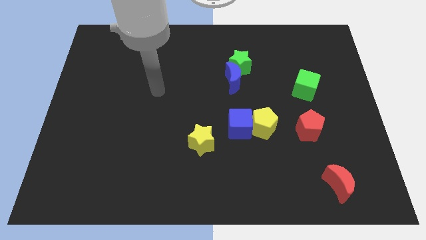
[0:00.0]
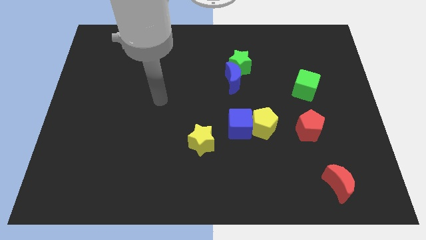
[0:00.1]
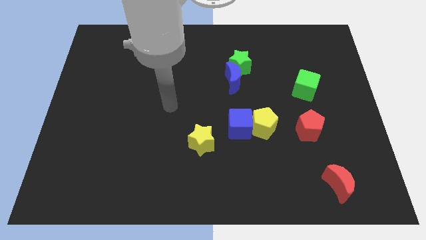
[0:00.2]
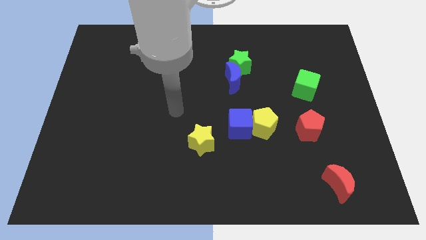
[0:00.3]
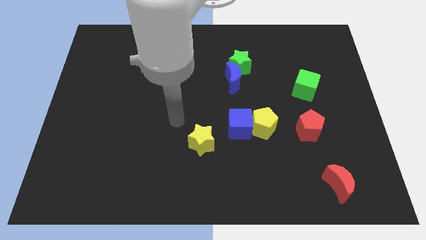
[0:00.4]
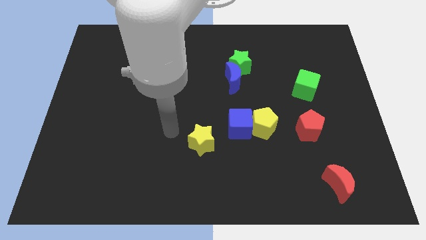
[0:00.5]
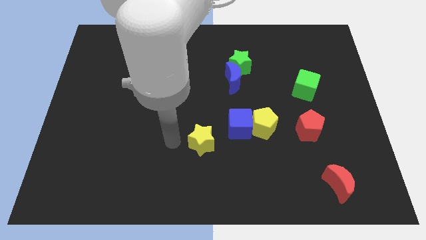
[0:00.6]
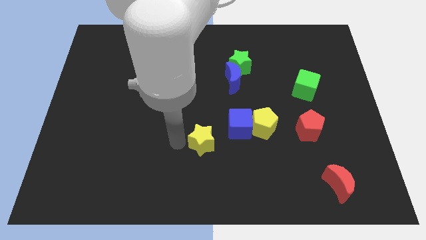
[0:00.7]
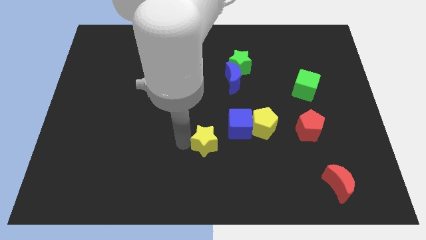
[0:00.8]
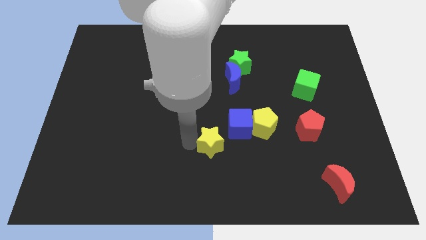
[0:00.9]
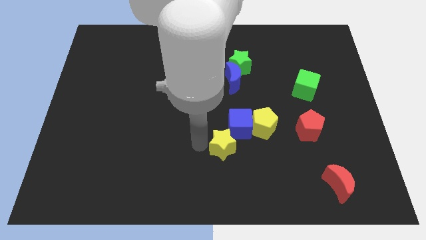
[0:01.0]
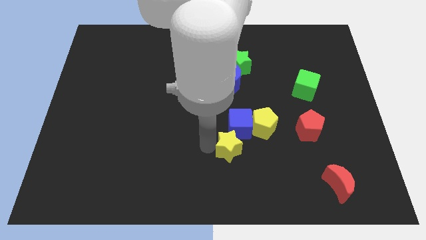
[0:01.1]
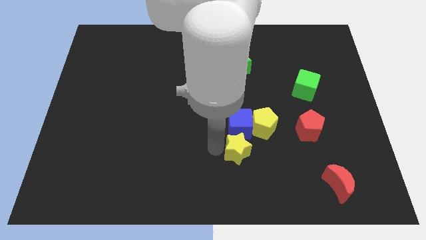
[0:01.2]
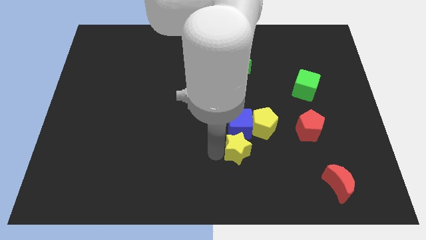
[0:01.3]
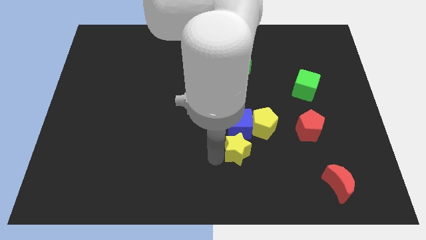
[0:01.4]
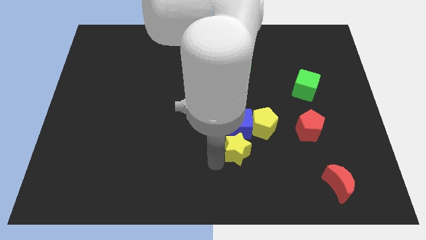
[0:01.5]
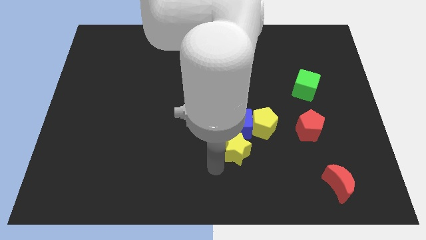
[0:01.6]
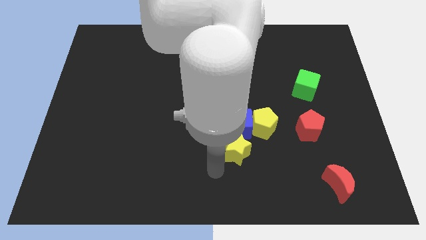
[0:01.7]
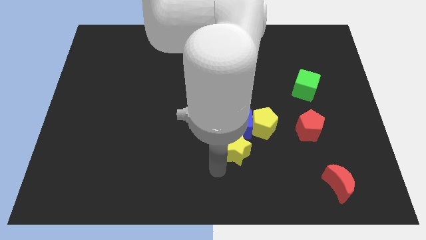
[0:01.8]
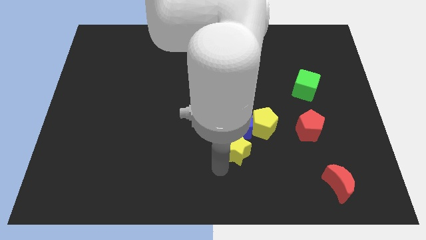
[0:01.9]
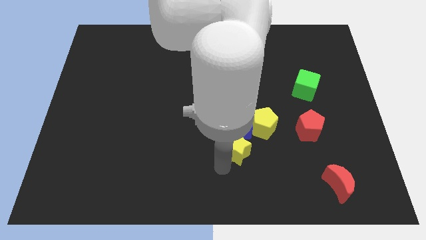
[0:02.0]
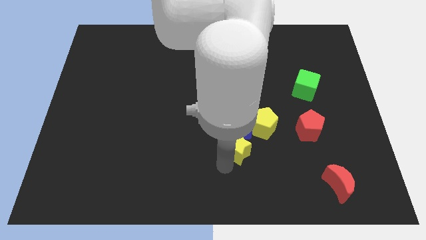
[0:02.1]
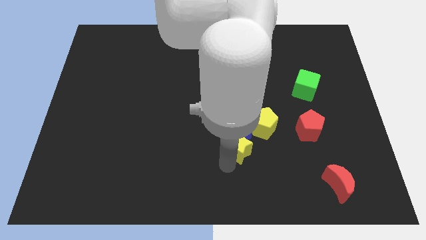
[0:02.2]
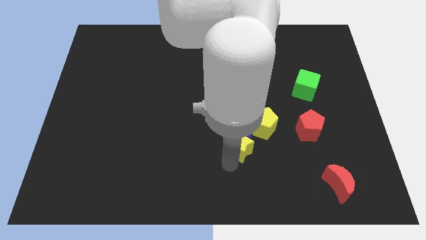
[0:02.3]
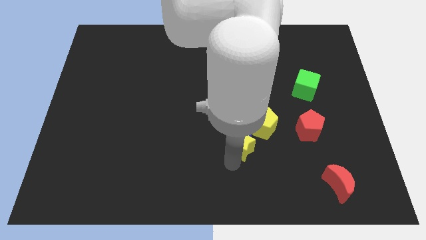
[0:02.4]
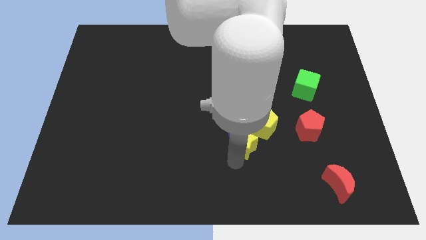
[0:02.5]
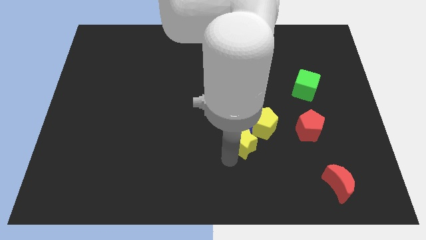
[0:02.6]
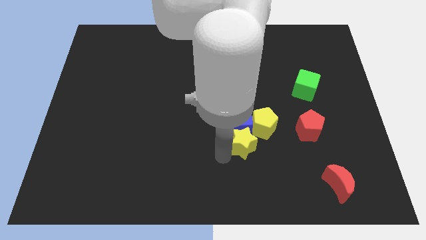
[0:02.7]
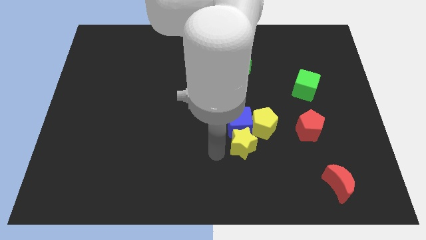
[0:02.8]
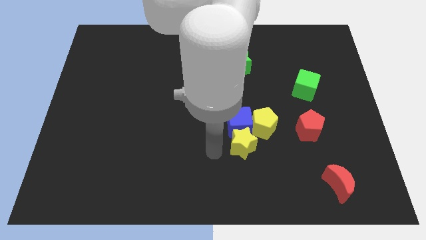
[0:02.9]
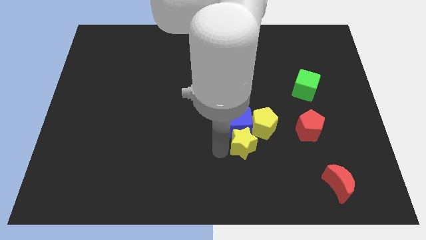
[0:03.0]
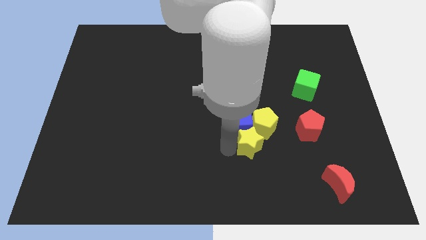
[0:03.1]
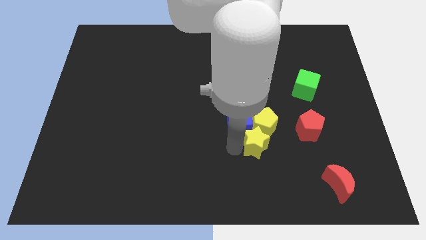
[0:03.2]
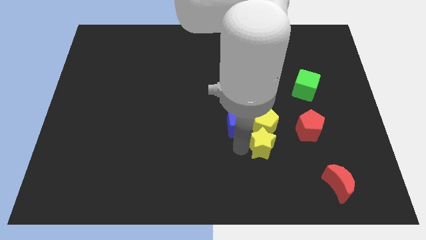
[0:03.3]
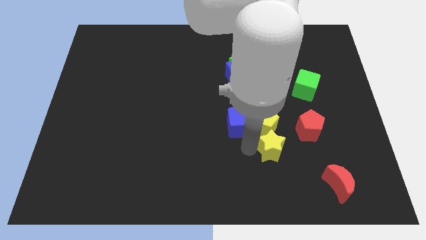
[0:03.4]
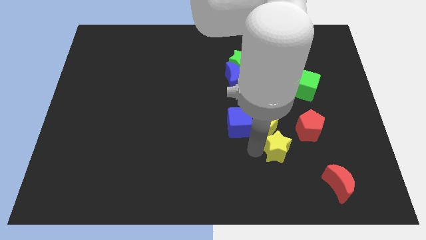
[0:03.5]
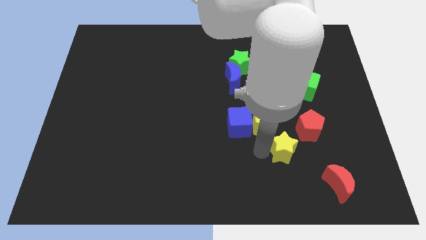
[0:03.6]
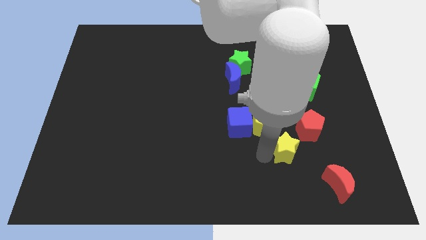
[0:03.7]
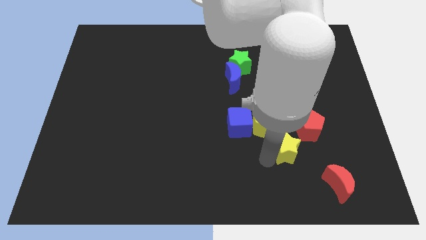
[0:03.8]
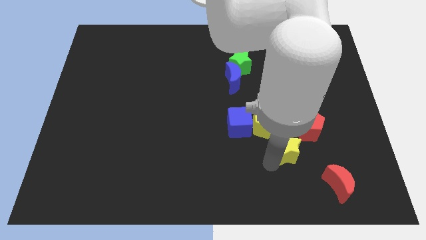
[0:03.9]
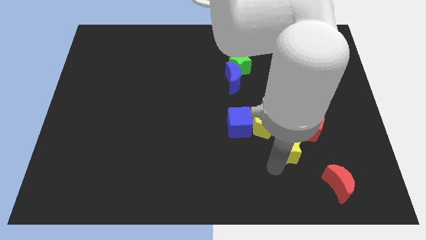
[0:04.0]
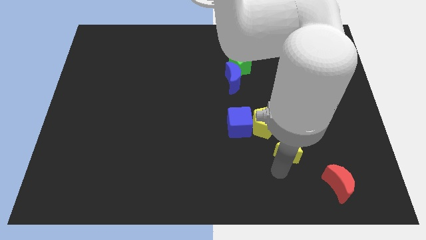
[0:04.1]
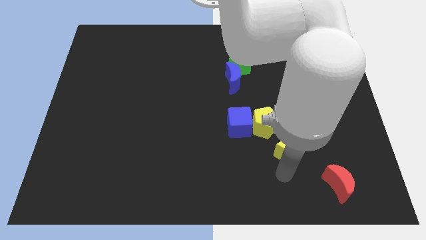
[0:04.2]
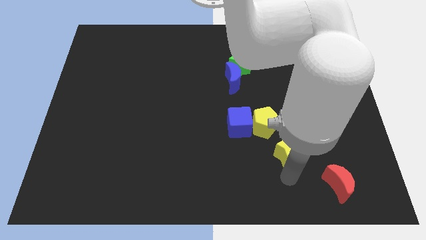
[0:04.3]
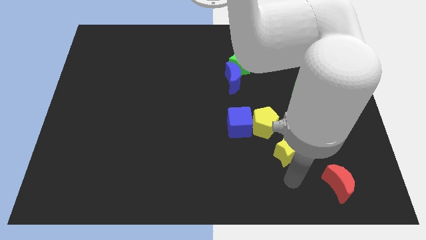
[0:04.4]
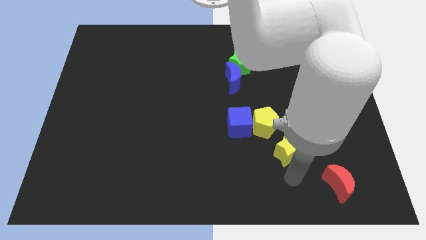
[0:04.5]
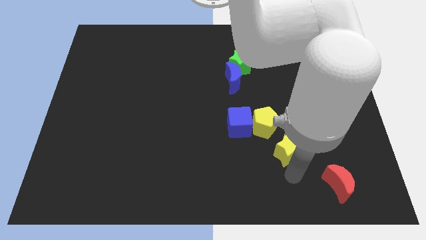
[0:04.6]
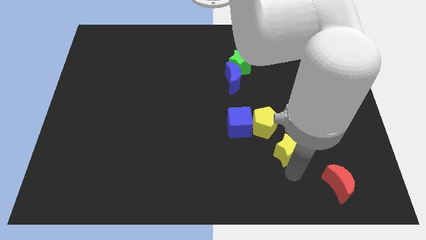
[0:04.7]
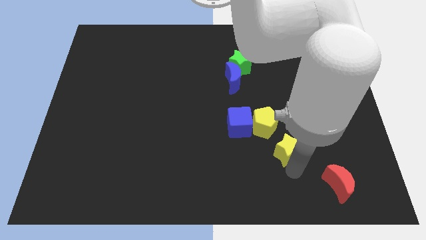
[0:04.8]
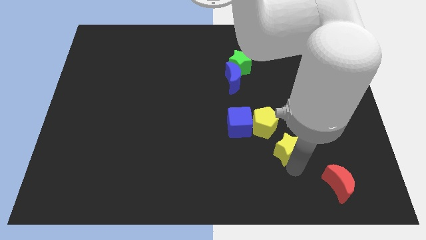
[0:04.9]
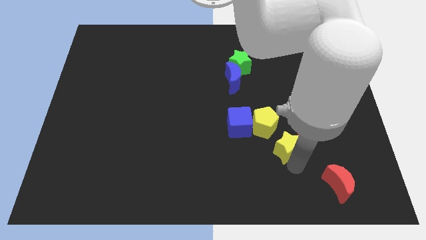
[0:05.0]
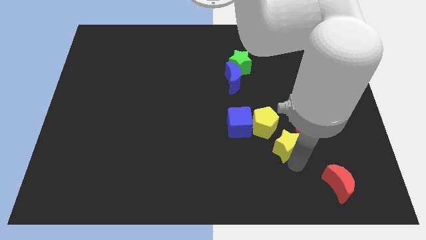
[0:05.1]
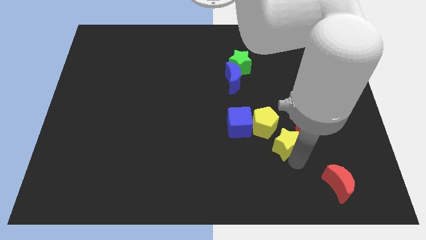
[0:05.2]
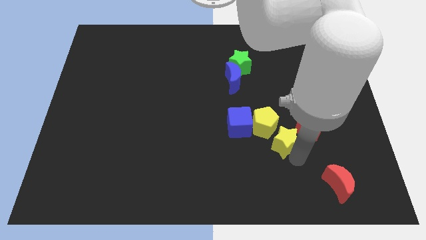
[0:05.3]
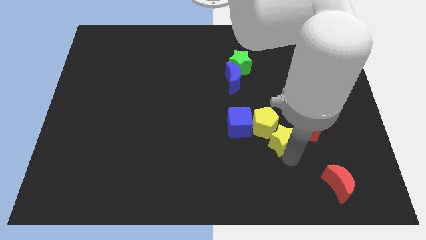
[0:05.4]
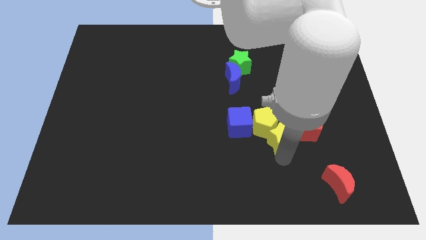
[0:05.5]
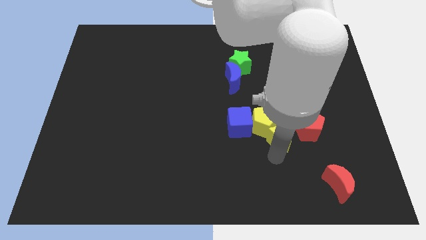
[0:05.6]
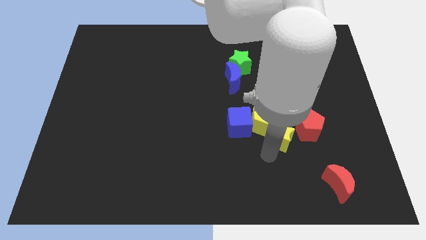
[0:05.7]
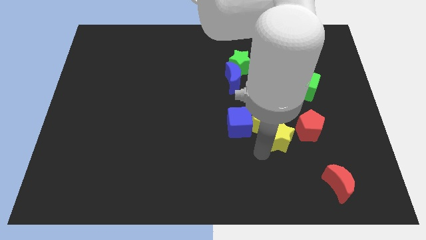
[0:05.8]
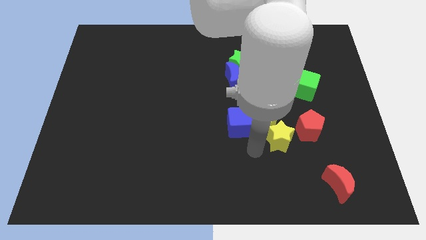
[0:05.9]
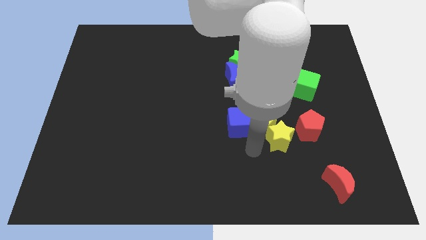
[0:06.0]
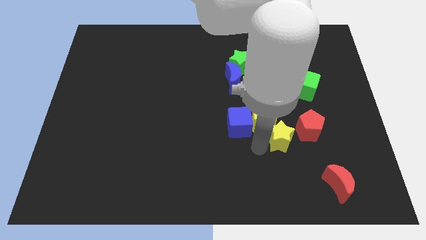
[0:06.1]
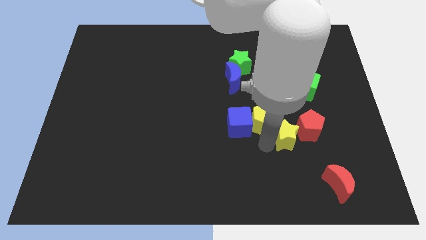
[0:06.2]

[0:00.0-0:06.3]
move the yellow star close to the red pentagon
